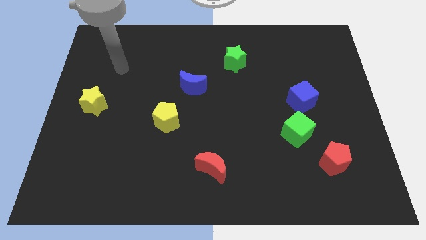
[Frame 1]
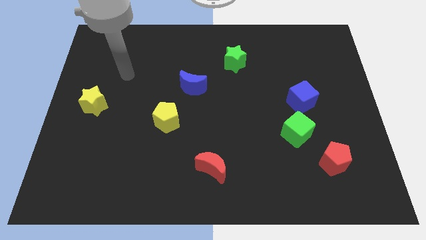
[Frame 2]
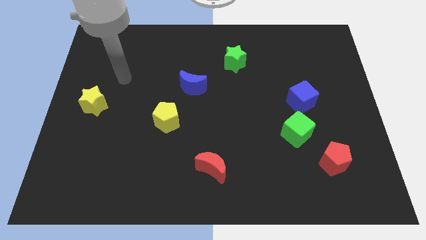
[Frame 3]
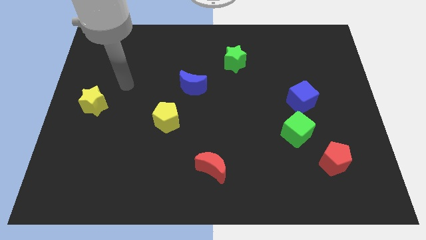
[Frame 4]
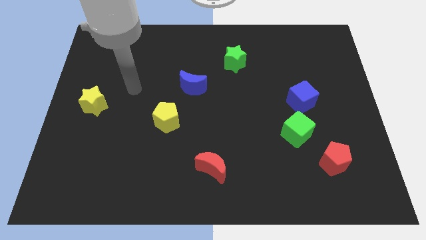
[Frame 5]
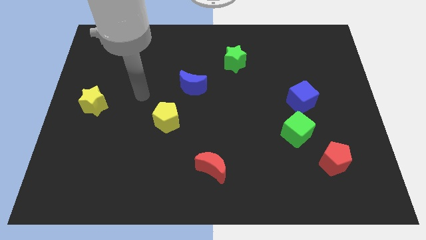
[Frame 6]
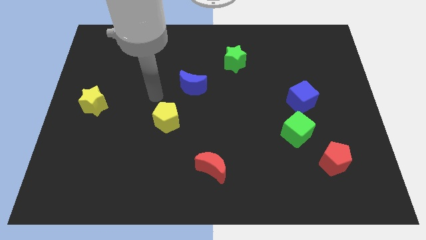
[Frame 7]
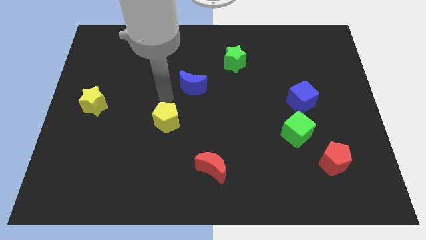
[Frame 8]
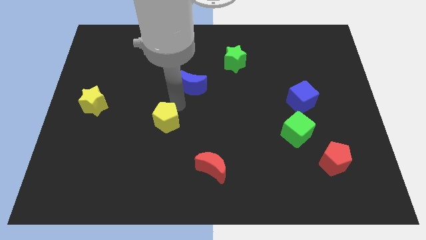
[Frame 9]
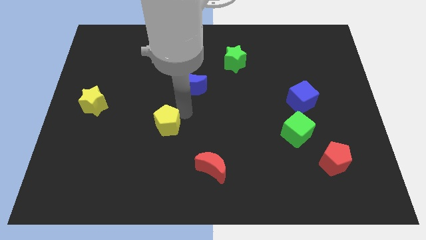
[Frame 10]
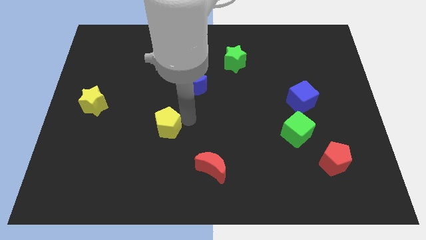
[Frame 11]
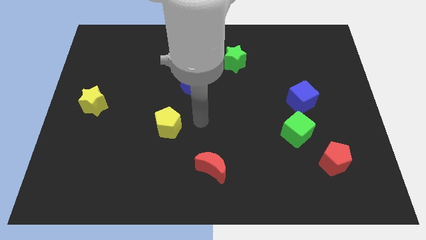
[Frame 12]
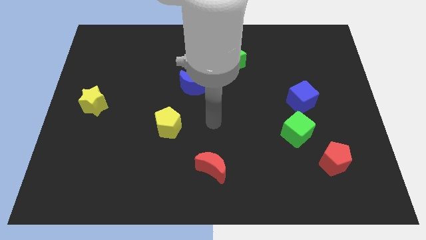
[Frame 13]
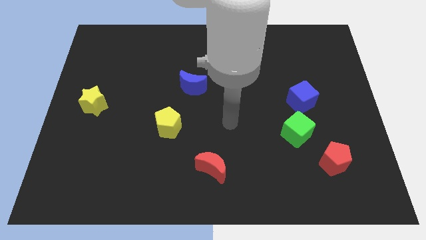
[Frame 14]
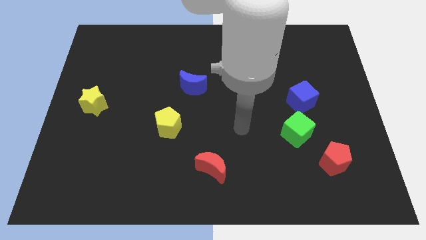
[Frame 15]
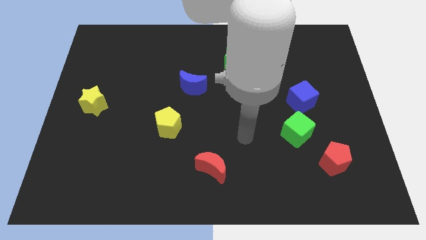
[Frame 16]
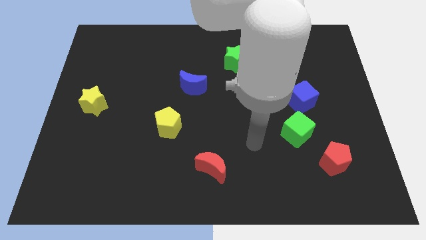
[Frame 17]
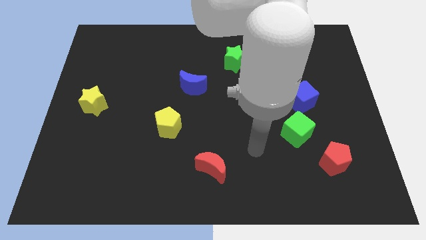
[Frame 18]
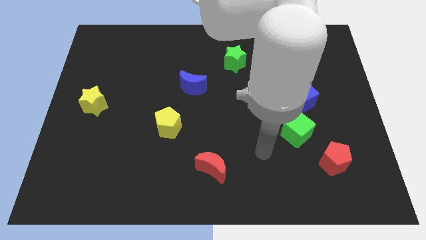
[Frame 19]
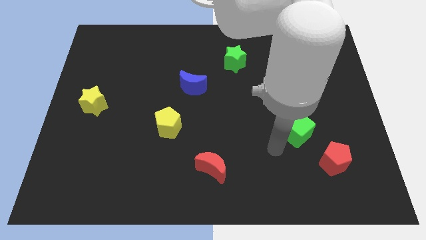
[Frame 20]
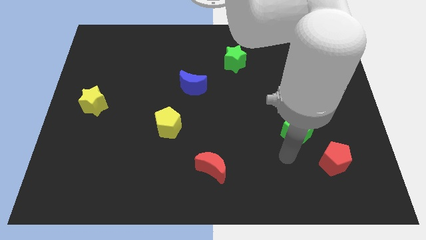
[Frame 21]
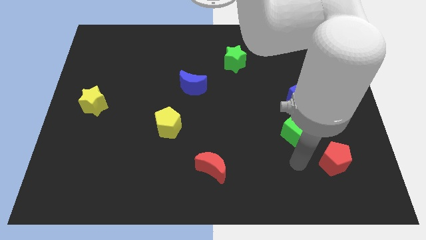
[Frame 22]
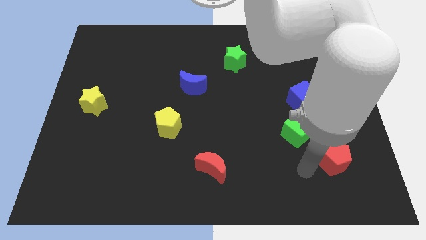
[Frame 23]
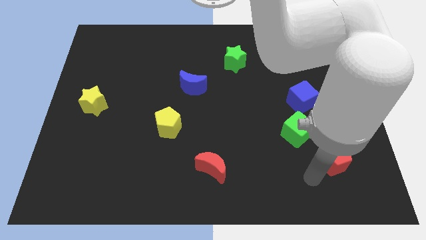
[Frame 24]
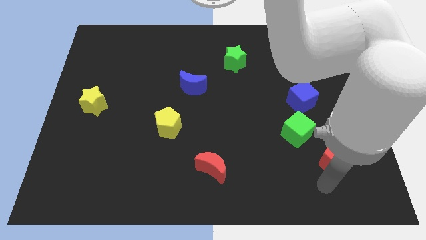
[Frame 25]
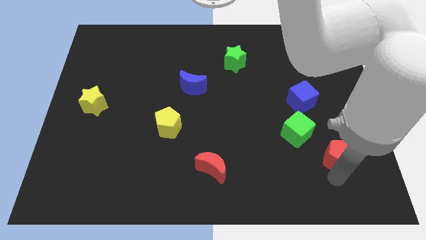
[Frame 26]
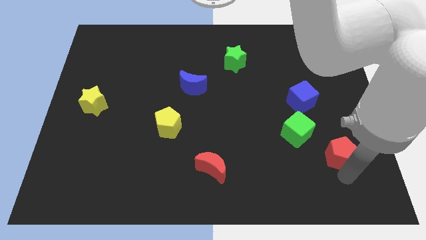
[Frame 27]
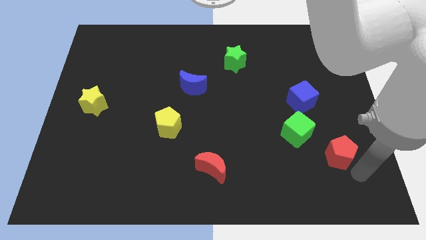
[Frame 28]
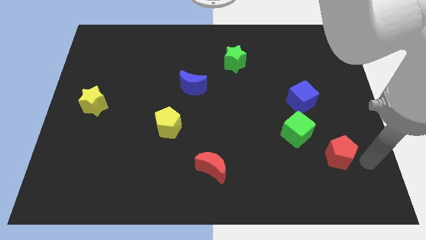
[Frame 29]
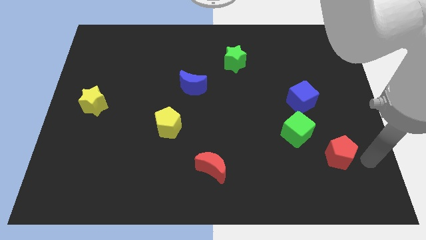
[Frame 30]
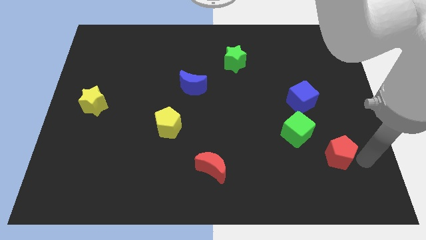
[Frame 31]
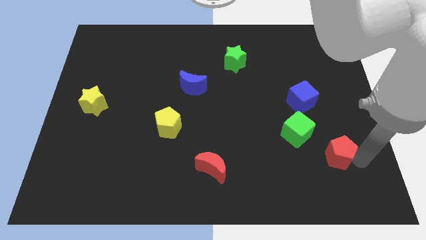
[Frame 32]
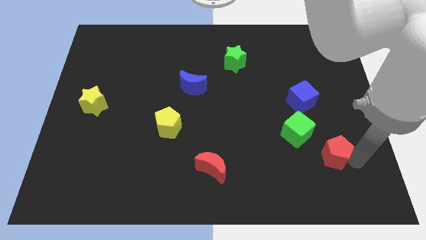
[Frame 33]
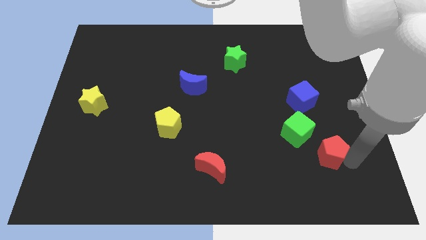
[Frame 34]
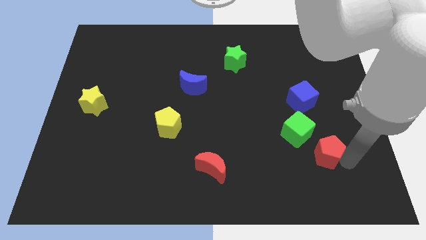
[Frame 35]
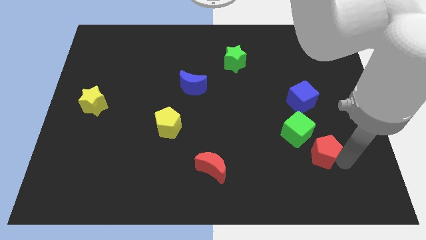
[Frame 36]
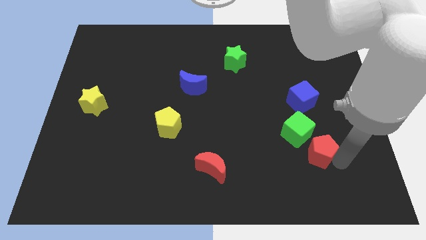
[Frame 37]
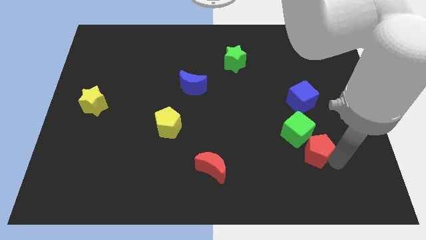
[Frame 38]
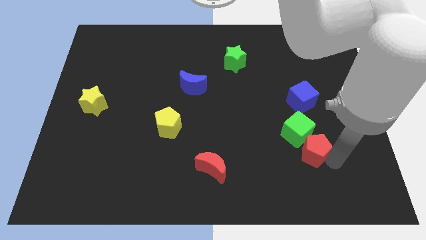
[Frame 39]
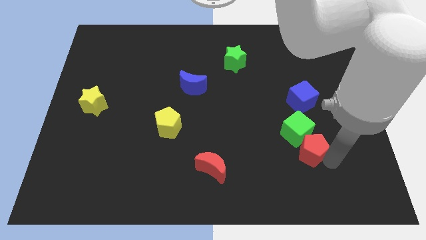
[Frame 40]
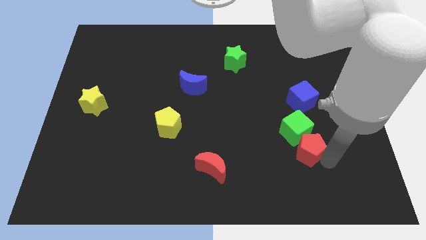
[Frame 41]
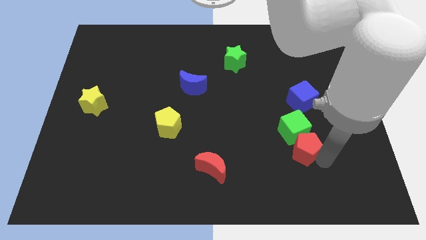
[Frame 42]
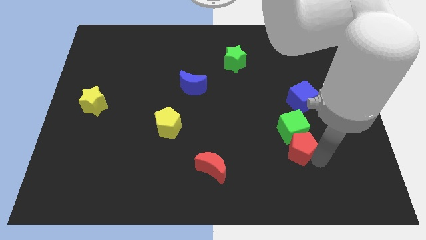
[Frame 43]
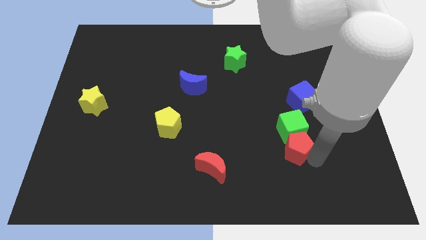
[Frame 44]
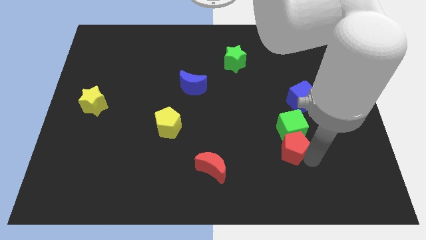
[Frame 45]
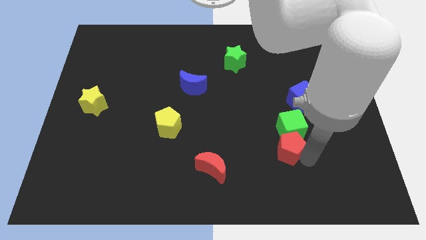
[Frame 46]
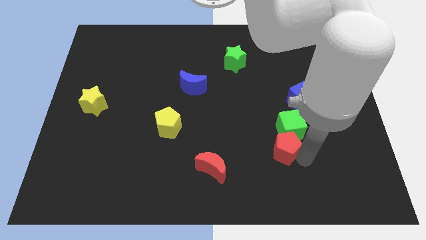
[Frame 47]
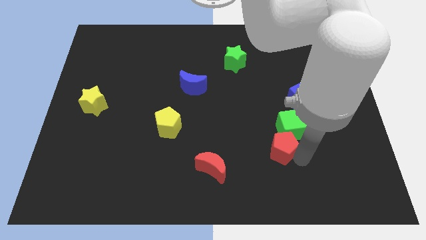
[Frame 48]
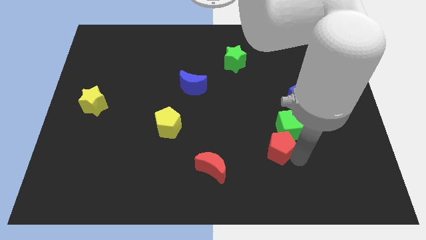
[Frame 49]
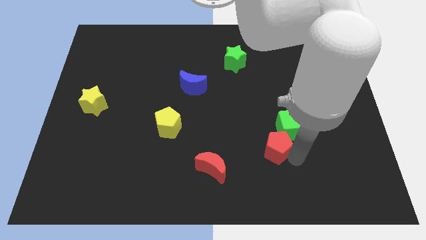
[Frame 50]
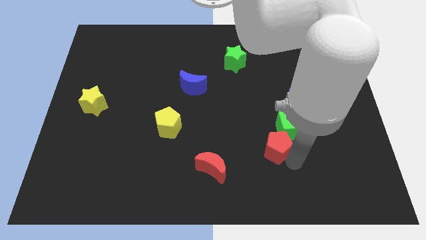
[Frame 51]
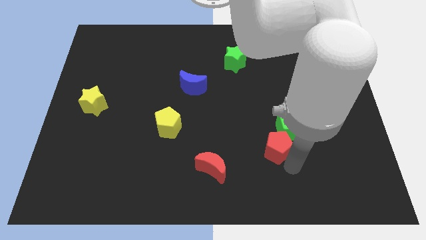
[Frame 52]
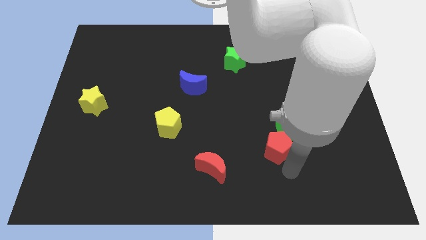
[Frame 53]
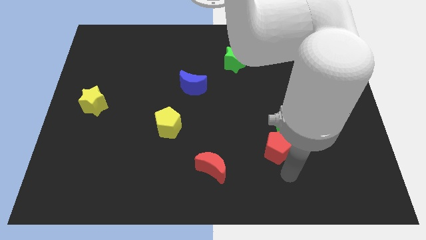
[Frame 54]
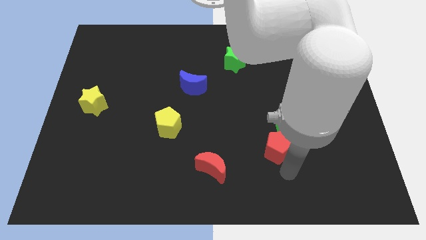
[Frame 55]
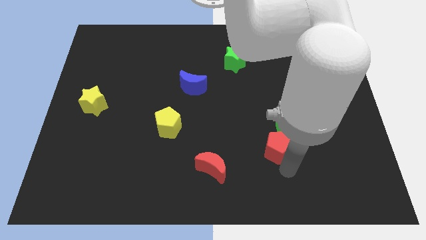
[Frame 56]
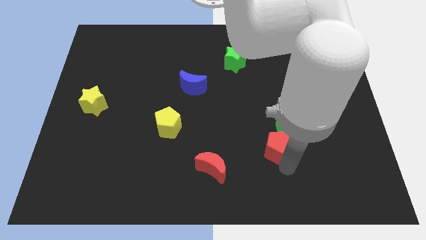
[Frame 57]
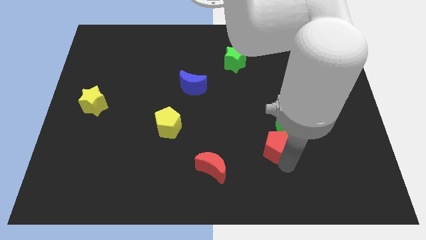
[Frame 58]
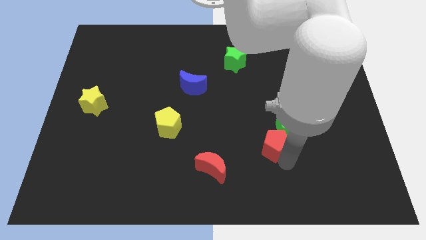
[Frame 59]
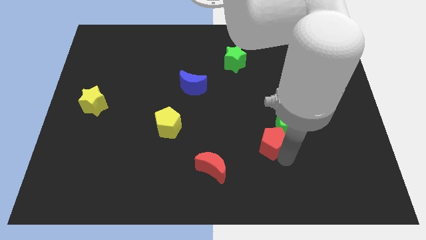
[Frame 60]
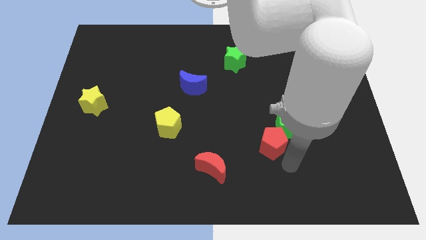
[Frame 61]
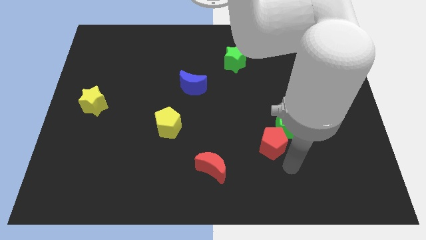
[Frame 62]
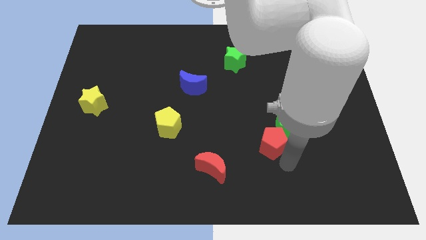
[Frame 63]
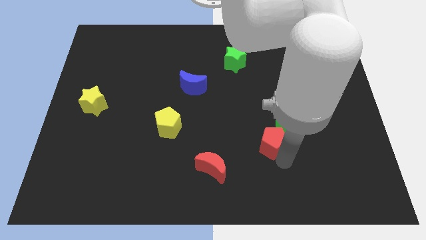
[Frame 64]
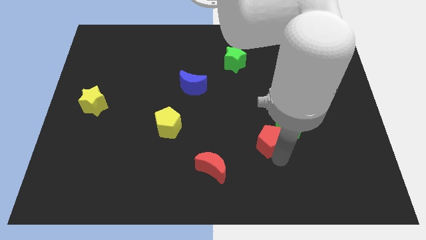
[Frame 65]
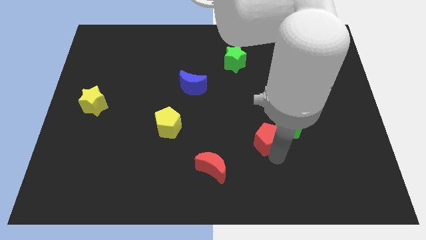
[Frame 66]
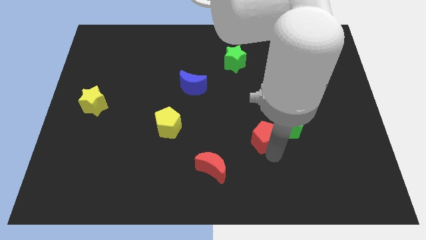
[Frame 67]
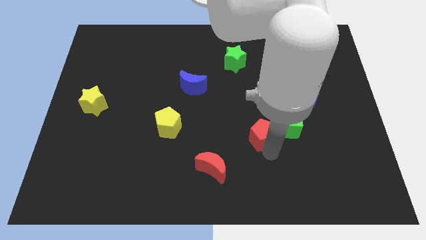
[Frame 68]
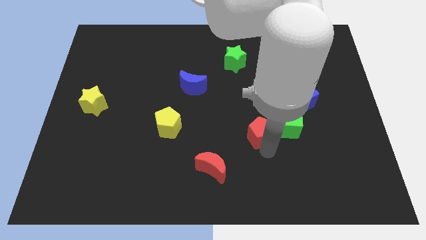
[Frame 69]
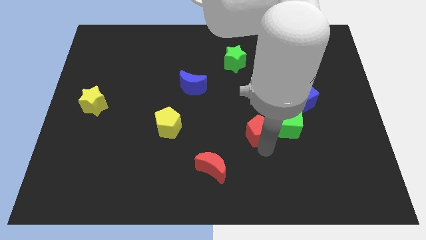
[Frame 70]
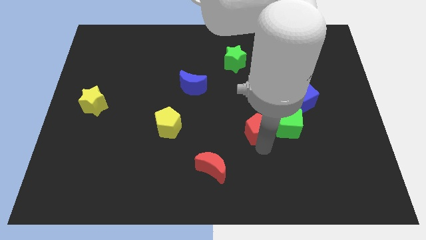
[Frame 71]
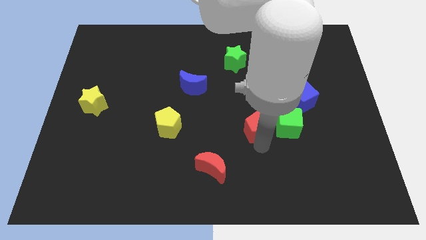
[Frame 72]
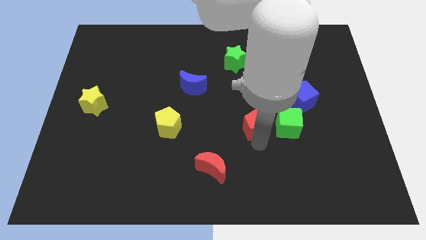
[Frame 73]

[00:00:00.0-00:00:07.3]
put the red pentagon to the middle of the board
